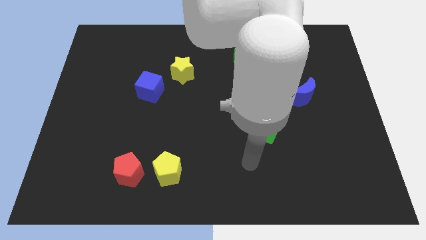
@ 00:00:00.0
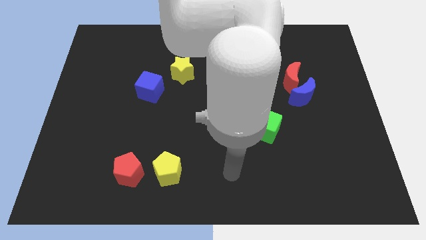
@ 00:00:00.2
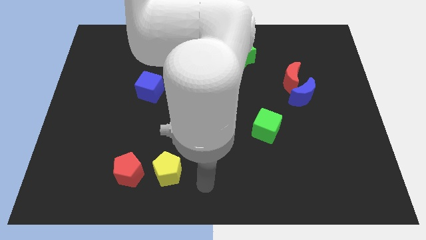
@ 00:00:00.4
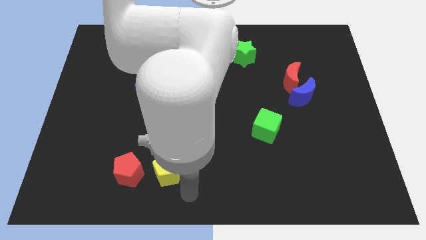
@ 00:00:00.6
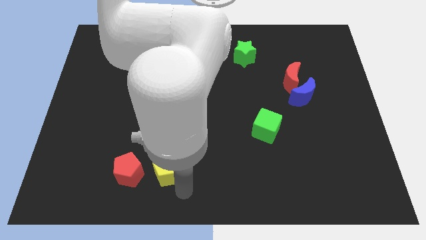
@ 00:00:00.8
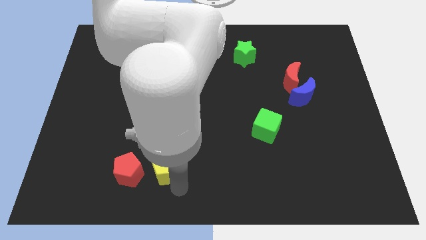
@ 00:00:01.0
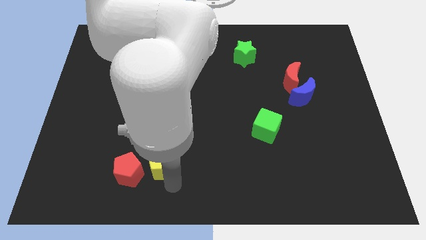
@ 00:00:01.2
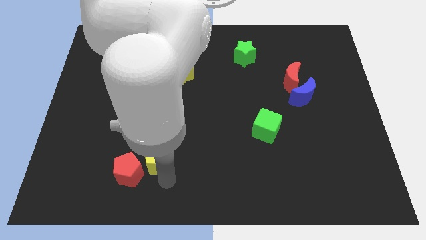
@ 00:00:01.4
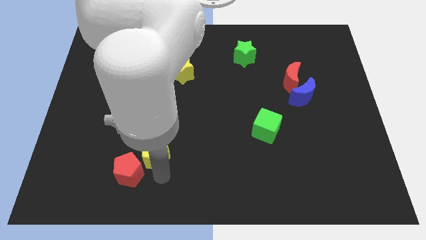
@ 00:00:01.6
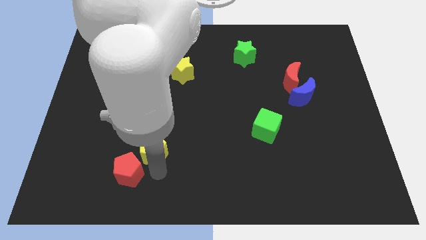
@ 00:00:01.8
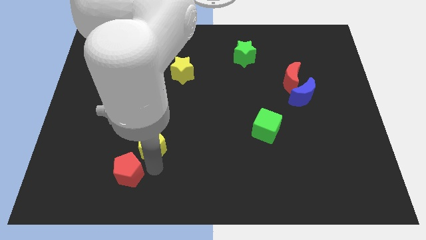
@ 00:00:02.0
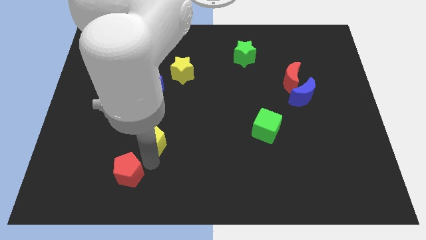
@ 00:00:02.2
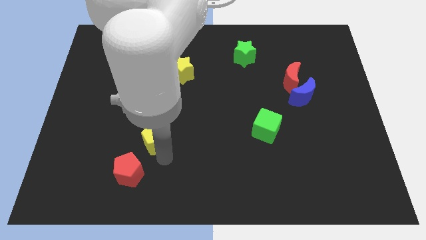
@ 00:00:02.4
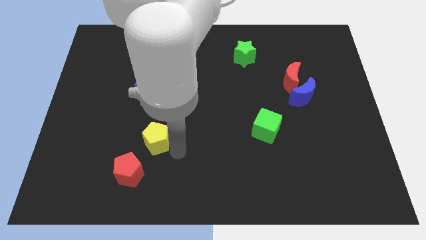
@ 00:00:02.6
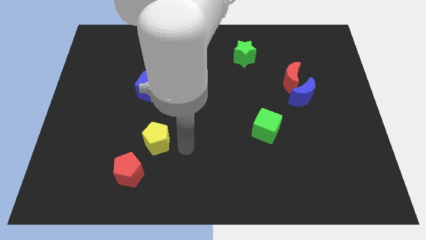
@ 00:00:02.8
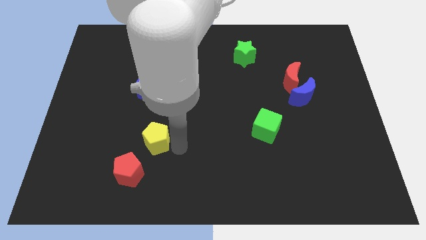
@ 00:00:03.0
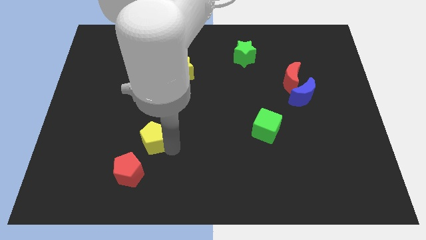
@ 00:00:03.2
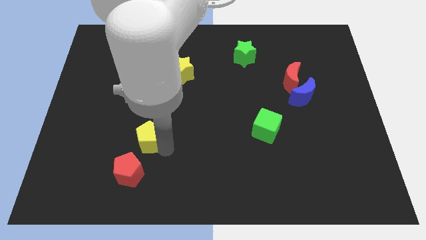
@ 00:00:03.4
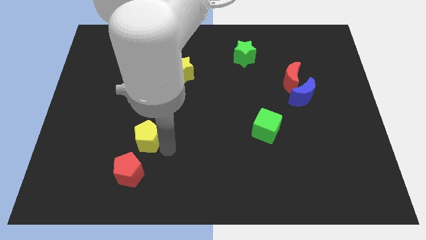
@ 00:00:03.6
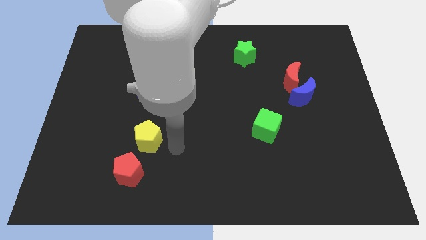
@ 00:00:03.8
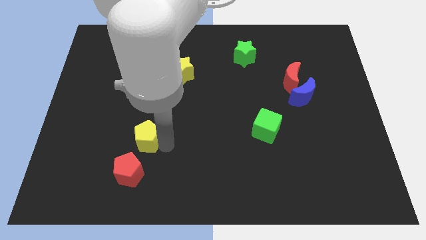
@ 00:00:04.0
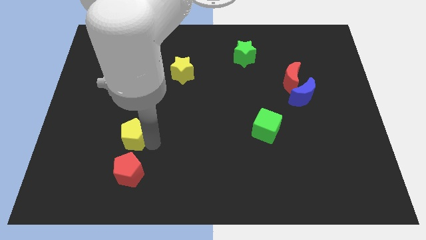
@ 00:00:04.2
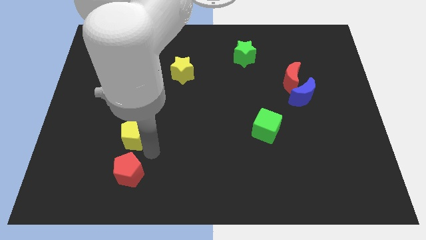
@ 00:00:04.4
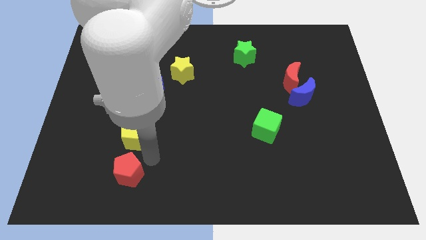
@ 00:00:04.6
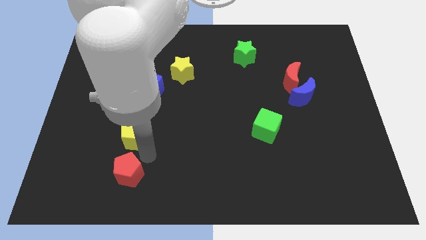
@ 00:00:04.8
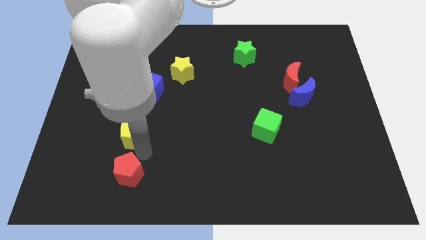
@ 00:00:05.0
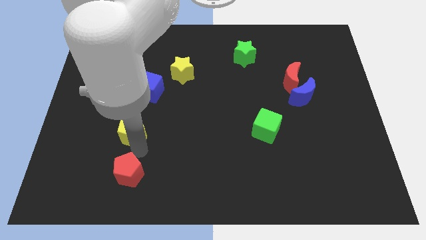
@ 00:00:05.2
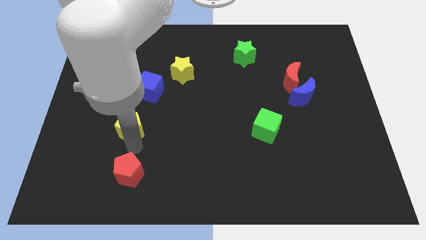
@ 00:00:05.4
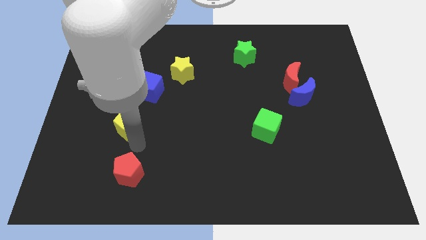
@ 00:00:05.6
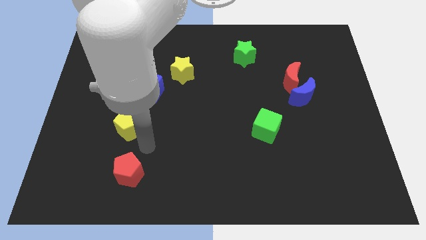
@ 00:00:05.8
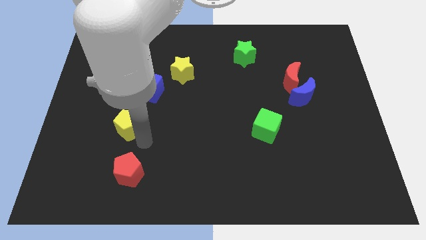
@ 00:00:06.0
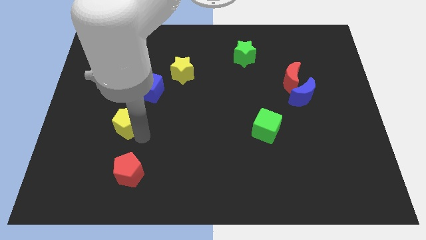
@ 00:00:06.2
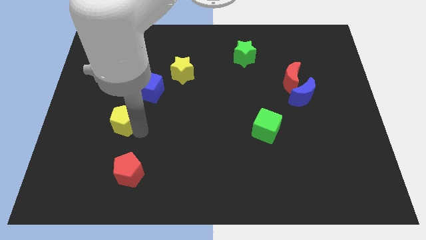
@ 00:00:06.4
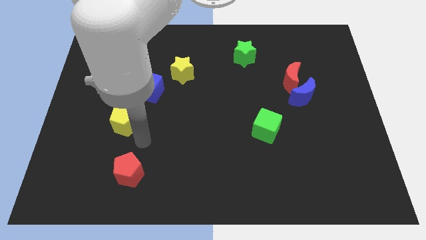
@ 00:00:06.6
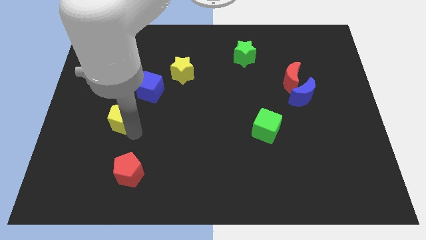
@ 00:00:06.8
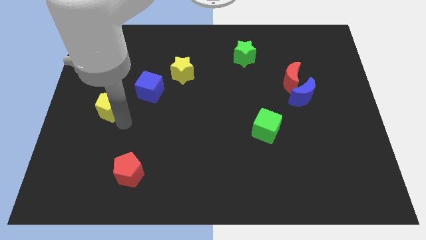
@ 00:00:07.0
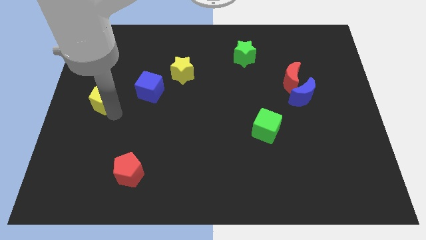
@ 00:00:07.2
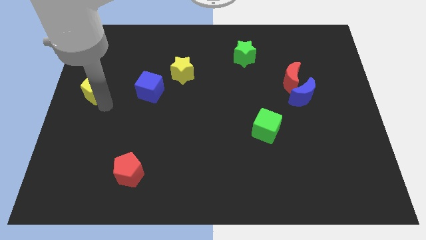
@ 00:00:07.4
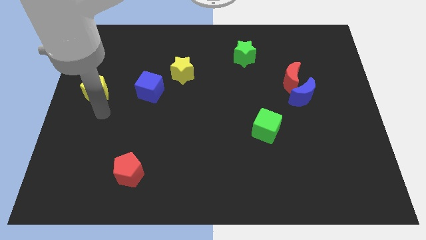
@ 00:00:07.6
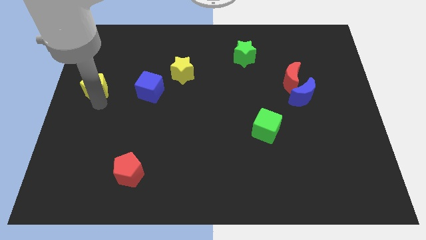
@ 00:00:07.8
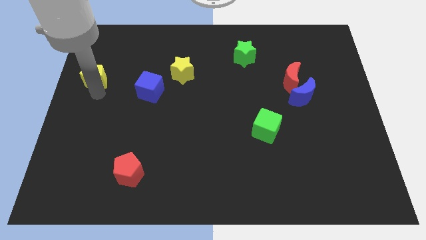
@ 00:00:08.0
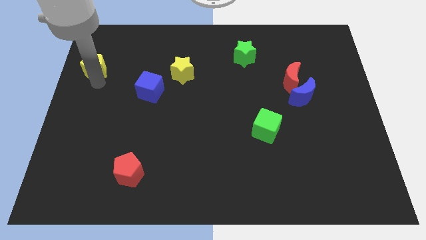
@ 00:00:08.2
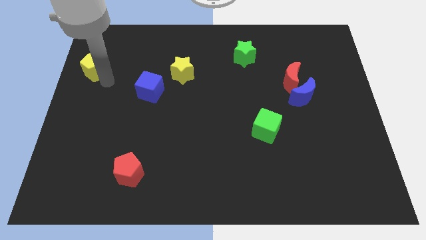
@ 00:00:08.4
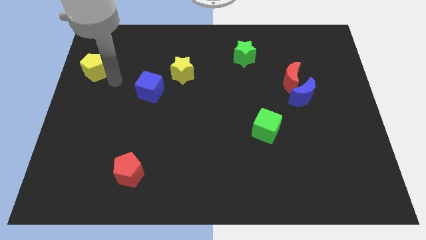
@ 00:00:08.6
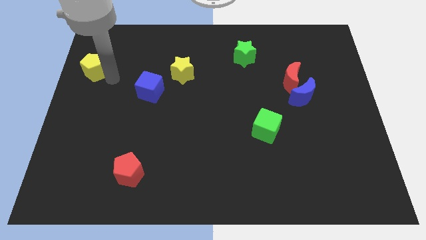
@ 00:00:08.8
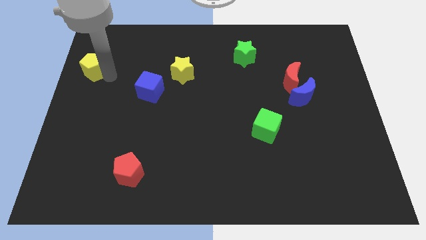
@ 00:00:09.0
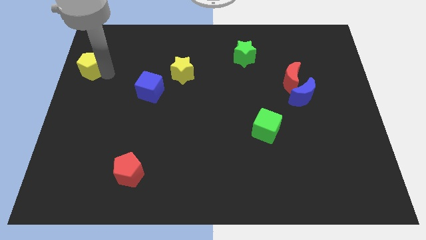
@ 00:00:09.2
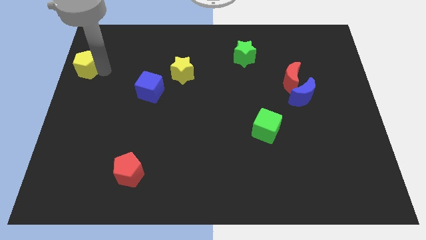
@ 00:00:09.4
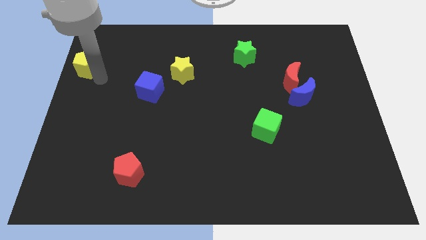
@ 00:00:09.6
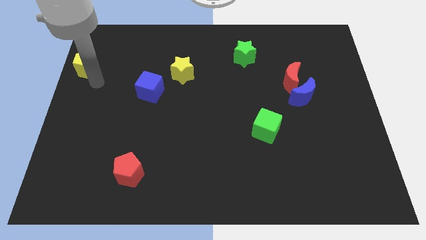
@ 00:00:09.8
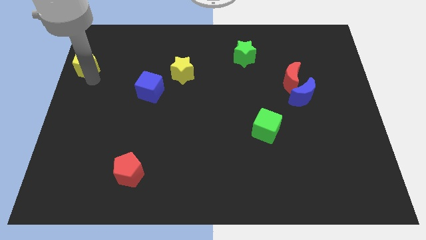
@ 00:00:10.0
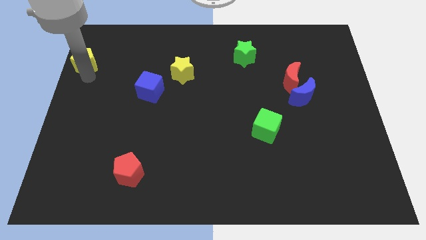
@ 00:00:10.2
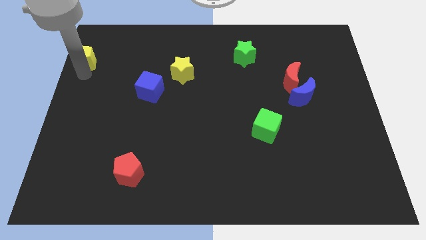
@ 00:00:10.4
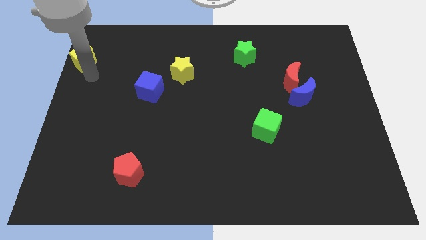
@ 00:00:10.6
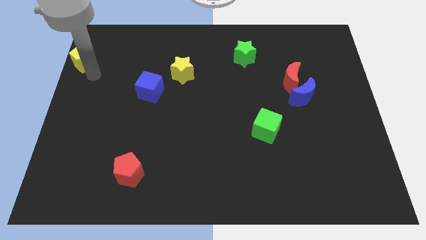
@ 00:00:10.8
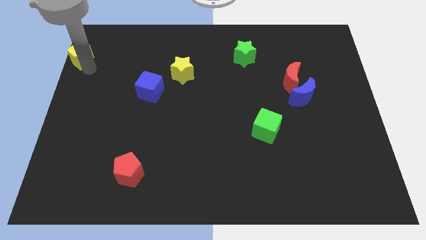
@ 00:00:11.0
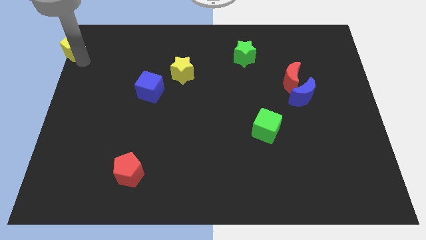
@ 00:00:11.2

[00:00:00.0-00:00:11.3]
slide the yellow pentagon to the upper left corner

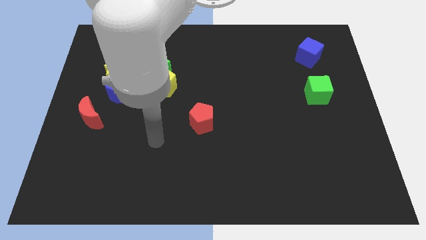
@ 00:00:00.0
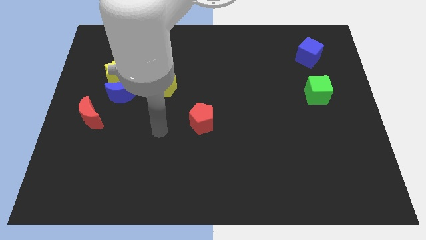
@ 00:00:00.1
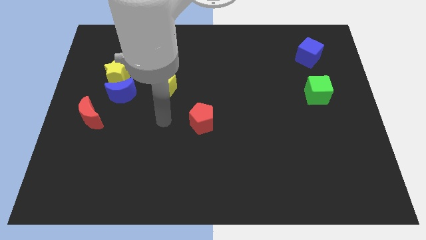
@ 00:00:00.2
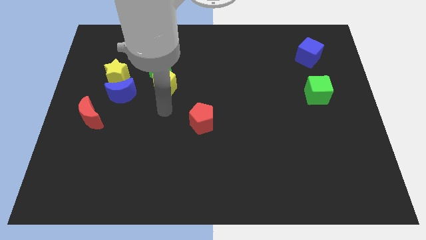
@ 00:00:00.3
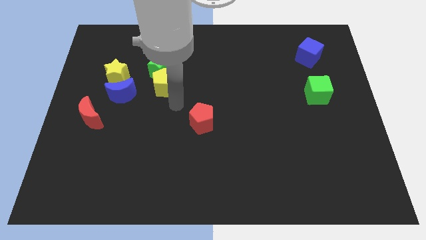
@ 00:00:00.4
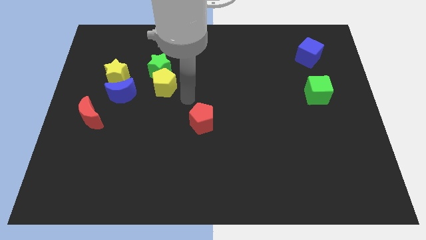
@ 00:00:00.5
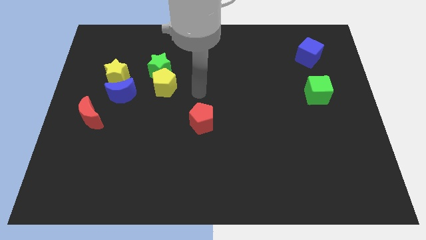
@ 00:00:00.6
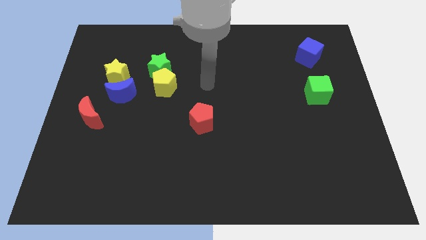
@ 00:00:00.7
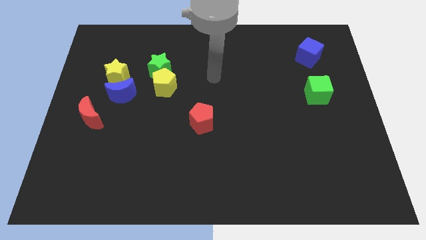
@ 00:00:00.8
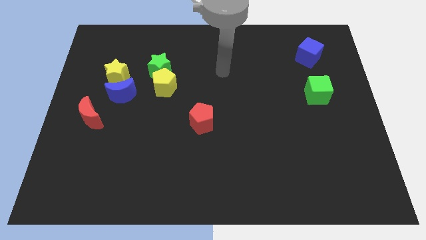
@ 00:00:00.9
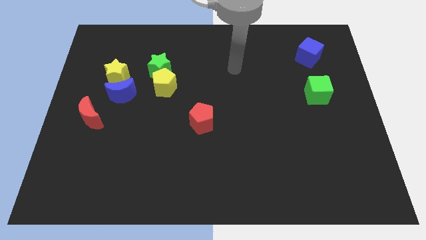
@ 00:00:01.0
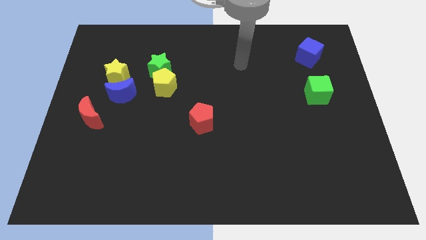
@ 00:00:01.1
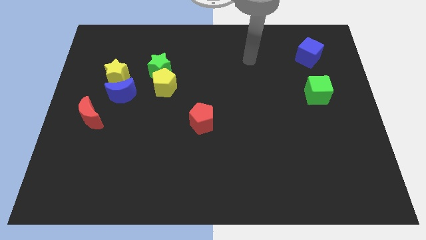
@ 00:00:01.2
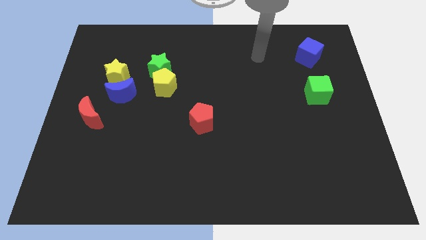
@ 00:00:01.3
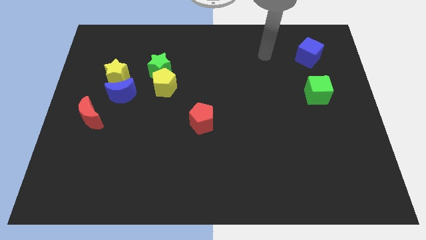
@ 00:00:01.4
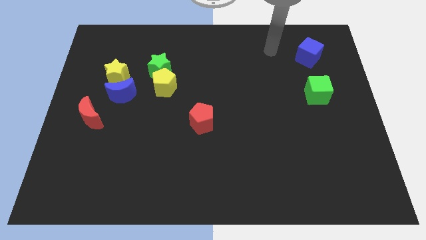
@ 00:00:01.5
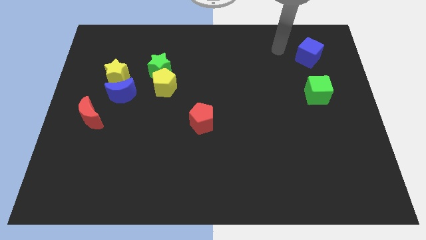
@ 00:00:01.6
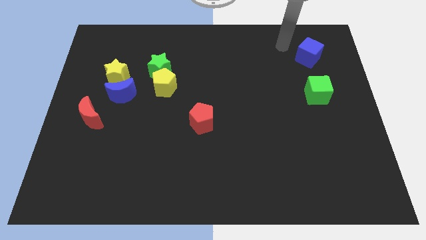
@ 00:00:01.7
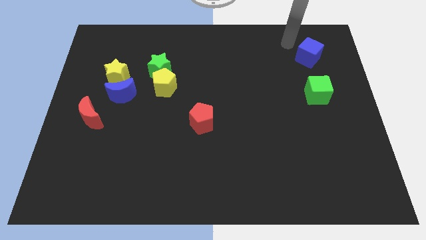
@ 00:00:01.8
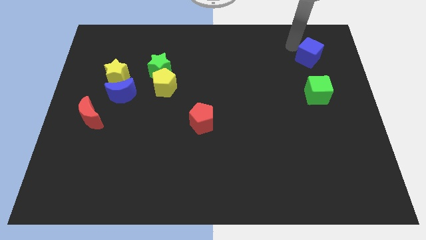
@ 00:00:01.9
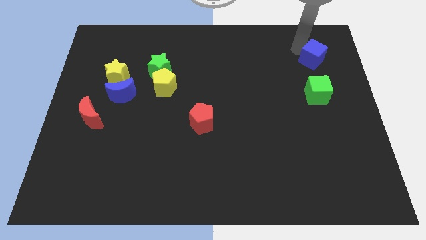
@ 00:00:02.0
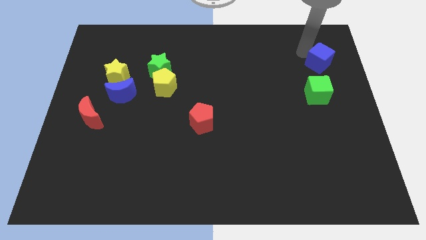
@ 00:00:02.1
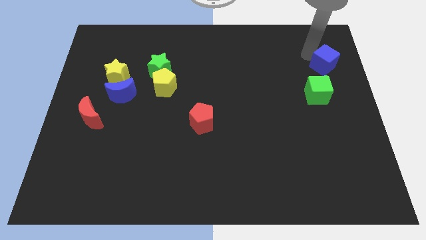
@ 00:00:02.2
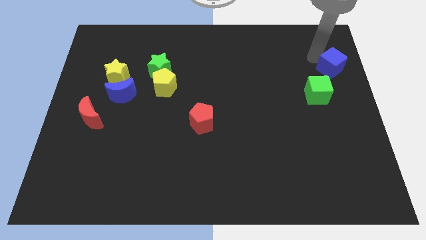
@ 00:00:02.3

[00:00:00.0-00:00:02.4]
slide the blue cube to the right side
